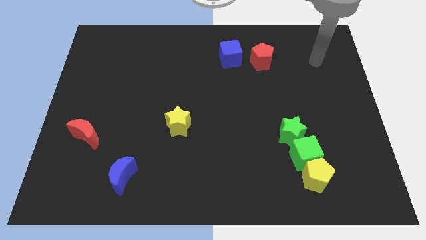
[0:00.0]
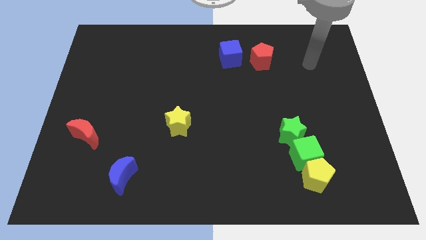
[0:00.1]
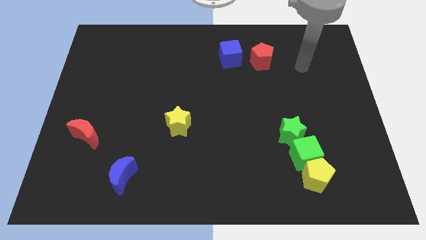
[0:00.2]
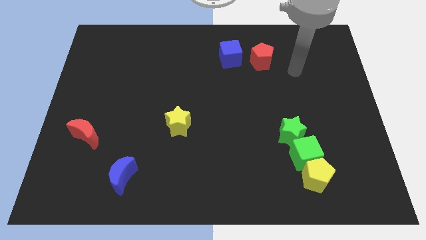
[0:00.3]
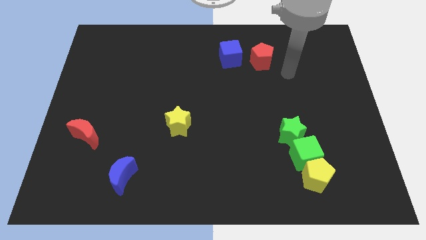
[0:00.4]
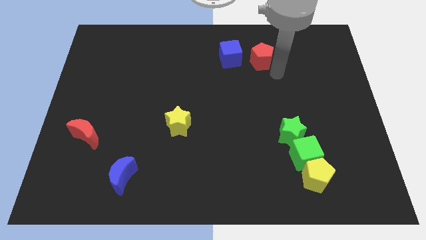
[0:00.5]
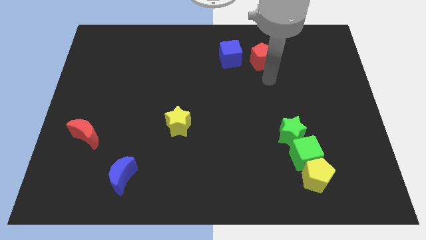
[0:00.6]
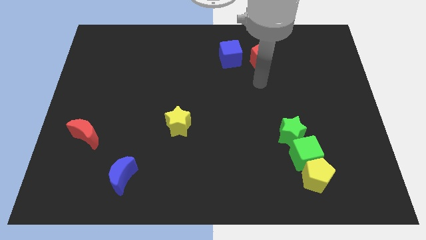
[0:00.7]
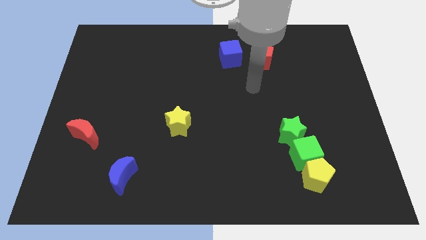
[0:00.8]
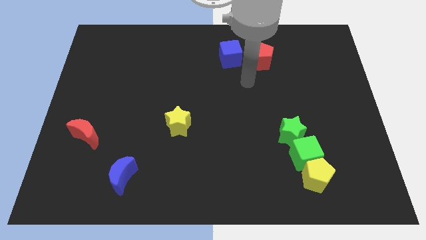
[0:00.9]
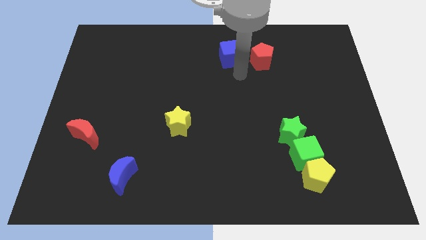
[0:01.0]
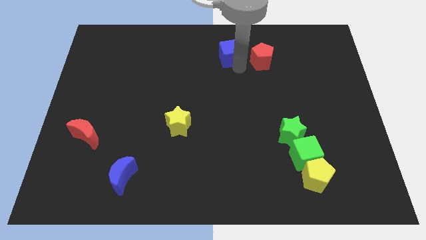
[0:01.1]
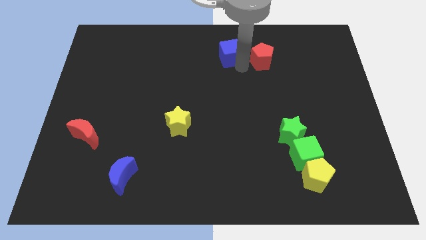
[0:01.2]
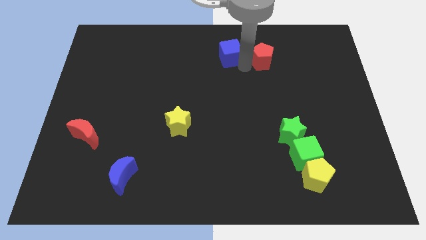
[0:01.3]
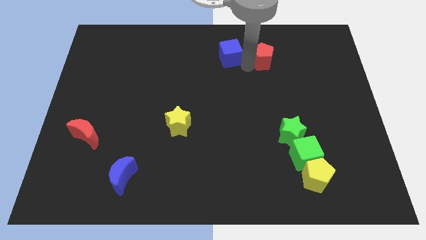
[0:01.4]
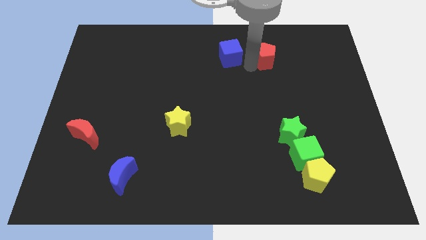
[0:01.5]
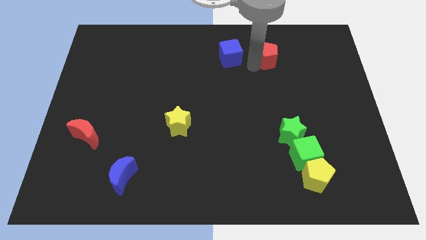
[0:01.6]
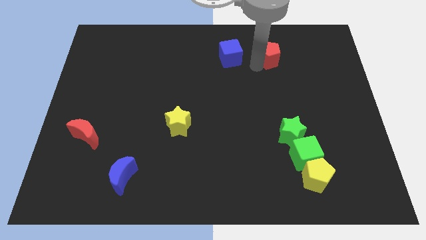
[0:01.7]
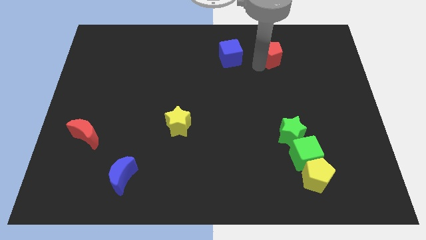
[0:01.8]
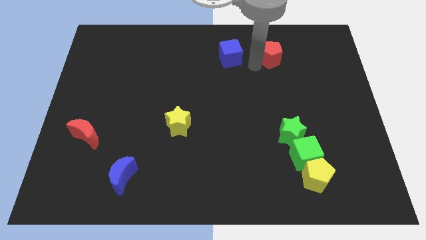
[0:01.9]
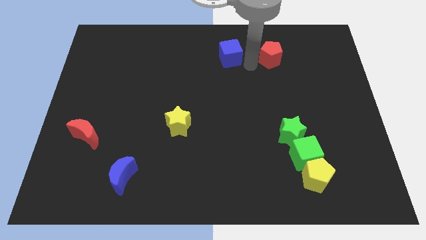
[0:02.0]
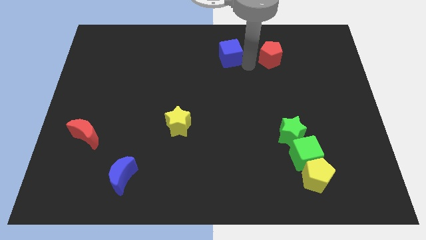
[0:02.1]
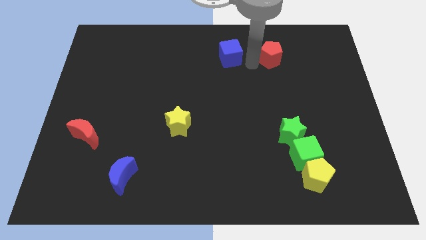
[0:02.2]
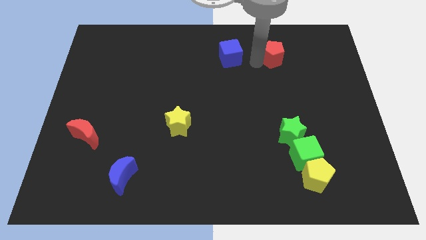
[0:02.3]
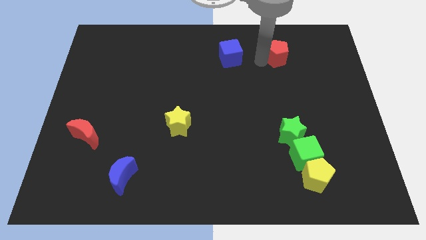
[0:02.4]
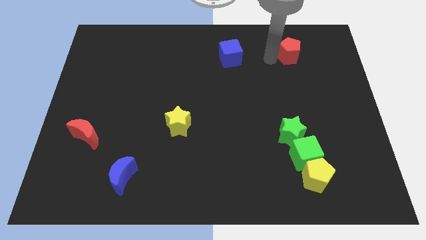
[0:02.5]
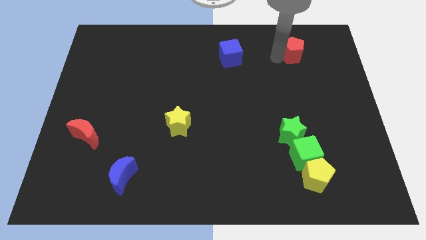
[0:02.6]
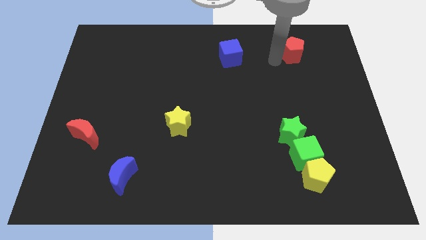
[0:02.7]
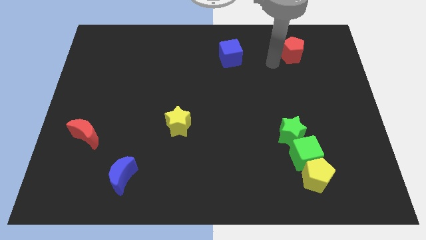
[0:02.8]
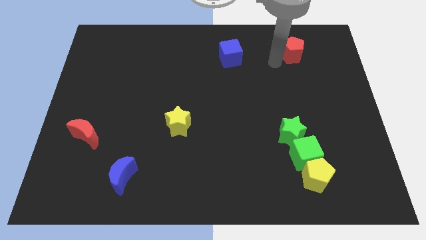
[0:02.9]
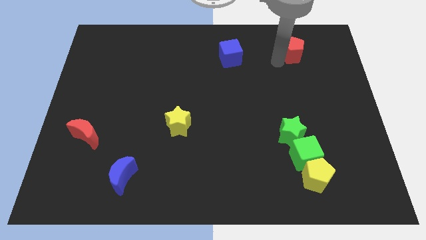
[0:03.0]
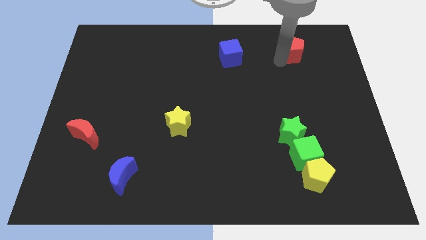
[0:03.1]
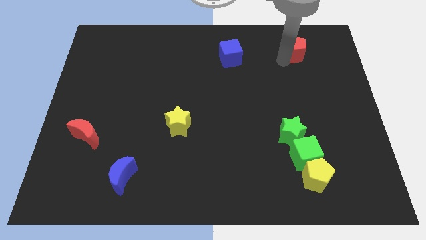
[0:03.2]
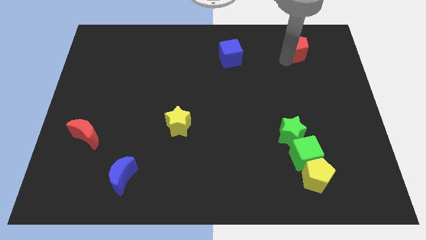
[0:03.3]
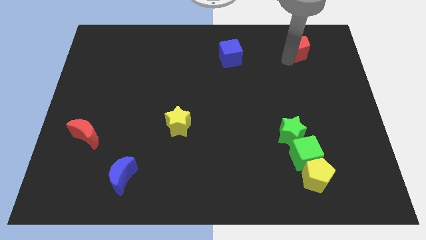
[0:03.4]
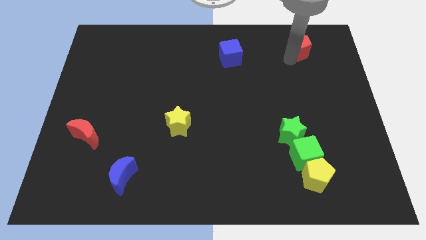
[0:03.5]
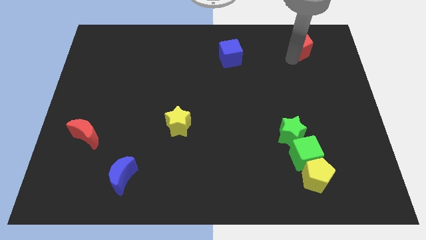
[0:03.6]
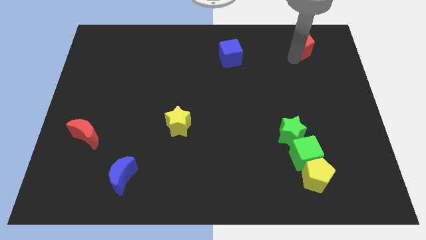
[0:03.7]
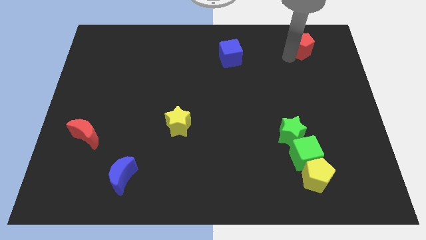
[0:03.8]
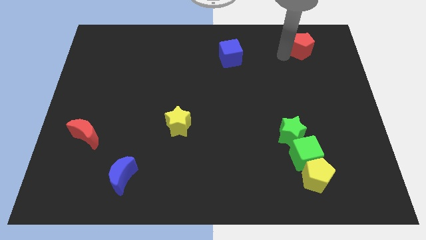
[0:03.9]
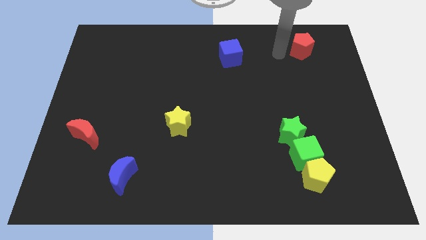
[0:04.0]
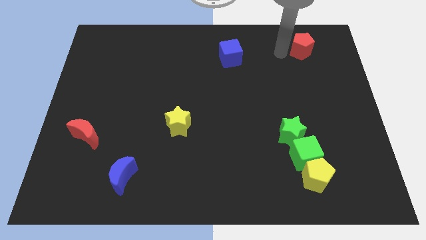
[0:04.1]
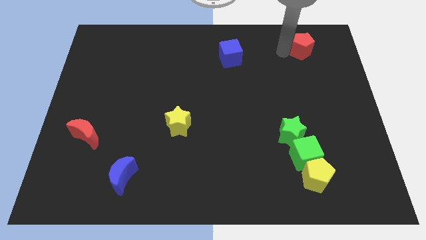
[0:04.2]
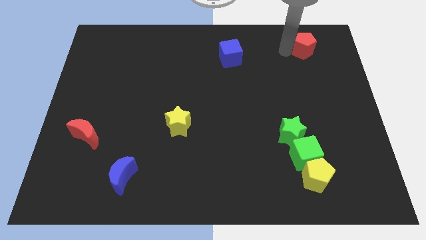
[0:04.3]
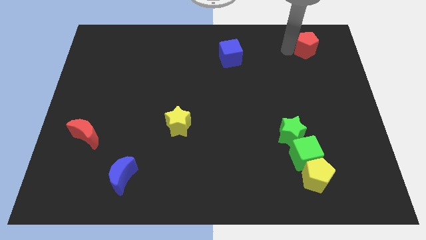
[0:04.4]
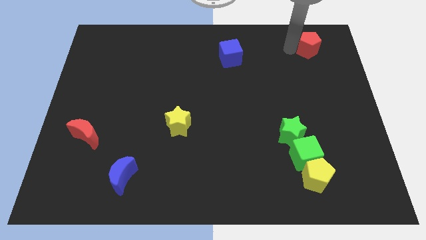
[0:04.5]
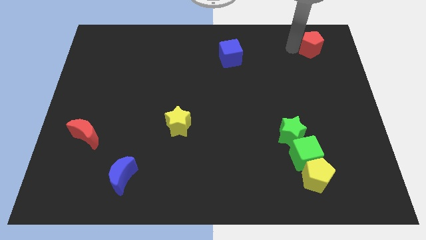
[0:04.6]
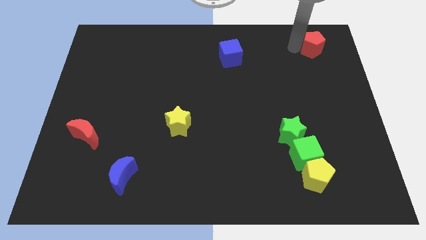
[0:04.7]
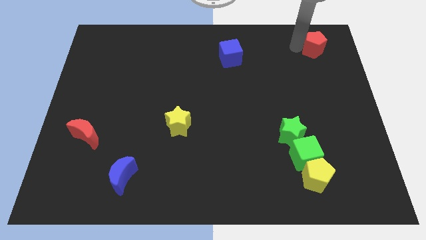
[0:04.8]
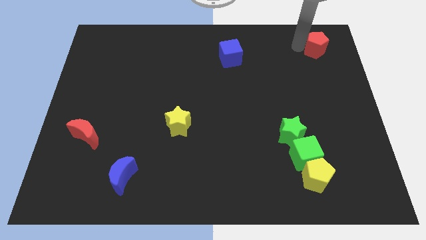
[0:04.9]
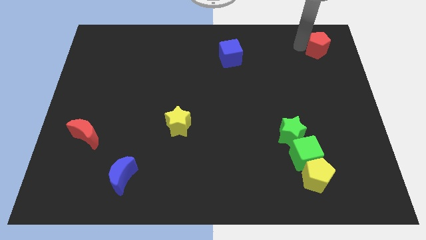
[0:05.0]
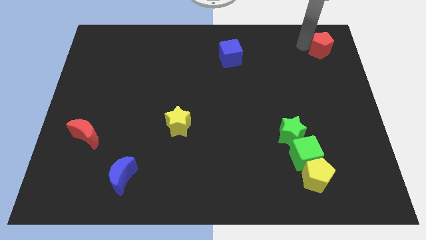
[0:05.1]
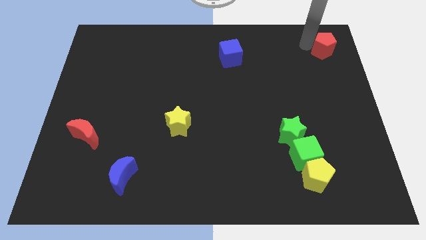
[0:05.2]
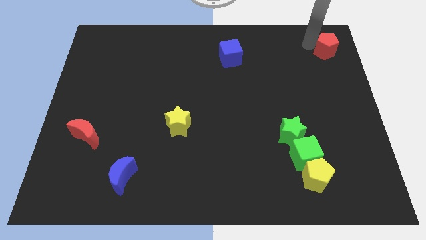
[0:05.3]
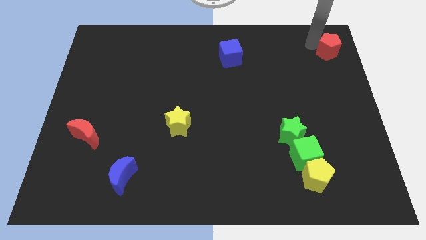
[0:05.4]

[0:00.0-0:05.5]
slide the red pentagon to the upper right corner

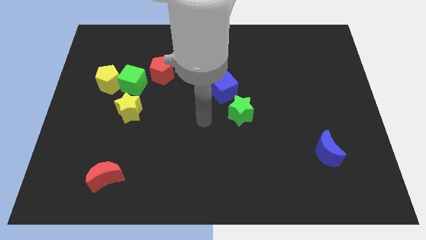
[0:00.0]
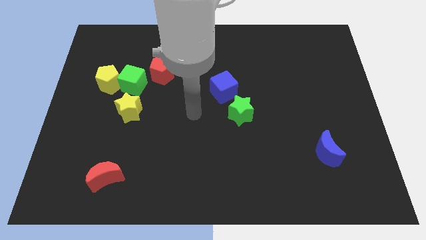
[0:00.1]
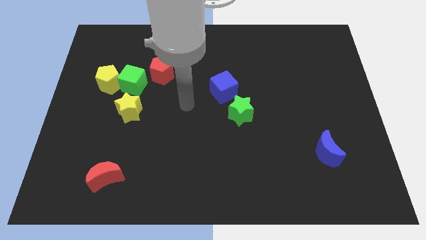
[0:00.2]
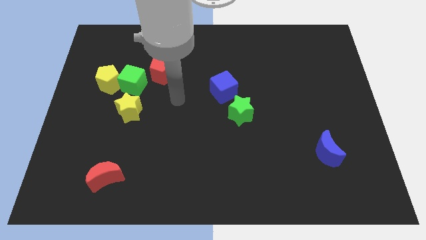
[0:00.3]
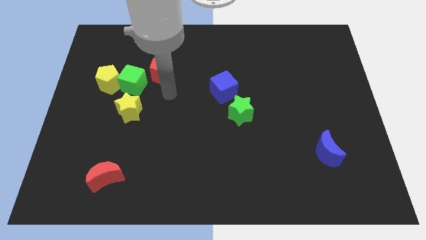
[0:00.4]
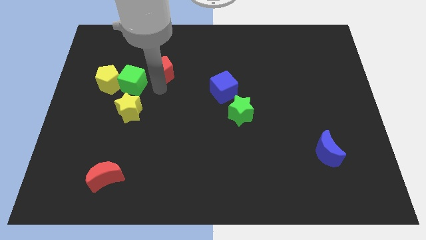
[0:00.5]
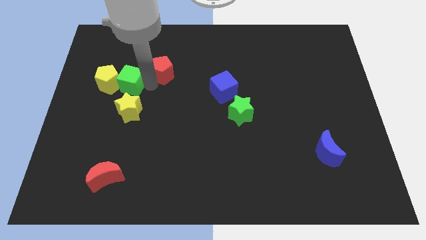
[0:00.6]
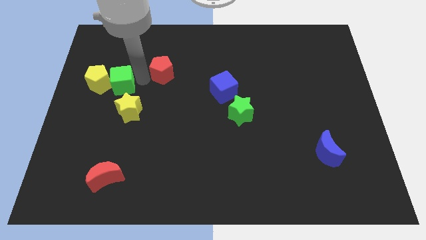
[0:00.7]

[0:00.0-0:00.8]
slide the yellow pentagon to the left side of the board
